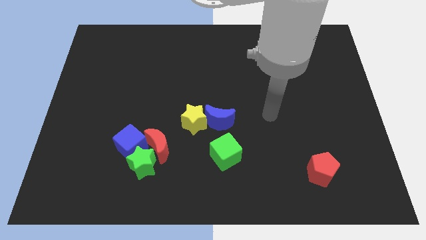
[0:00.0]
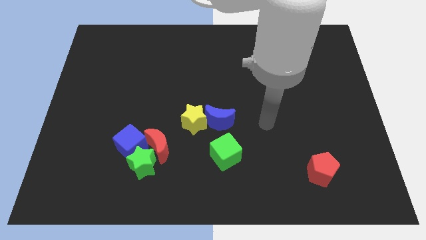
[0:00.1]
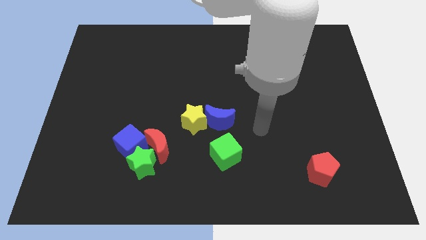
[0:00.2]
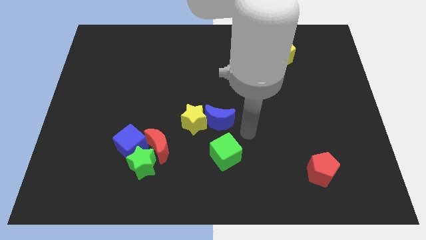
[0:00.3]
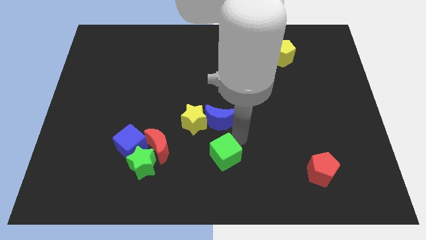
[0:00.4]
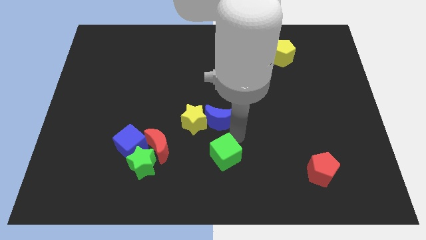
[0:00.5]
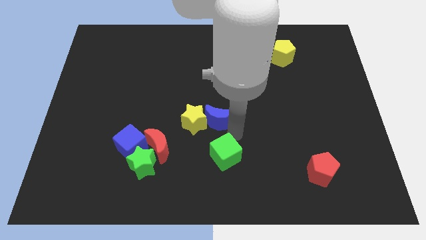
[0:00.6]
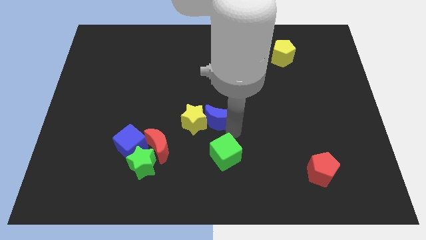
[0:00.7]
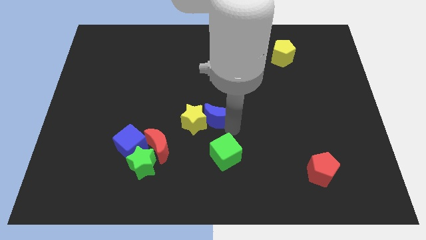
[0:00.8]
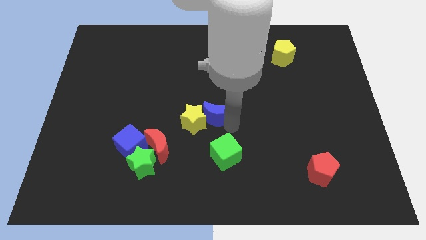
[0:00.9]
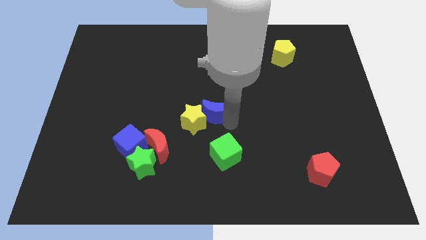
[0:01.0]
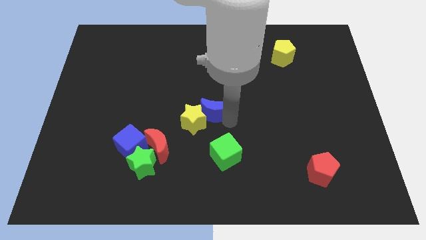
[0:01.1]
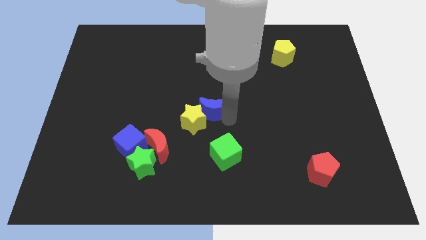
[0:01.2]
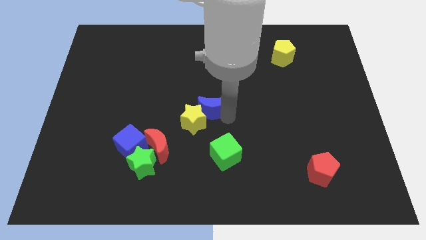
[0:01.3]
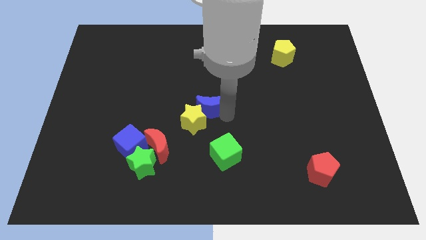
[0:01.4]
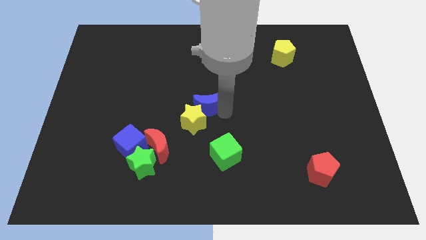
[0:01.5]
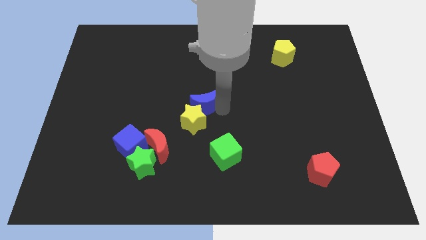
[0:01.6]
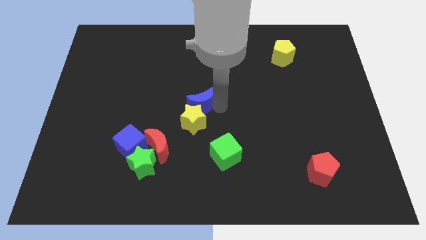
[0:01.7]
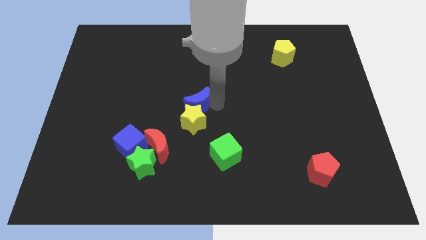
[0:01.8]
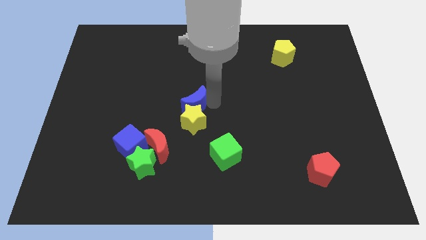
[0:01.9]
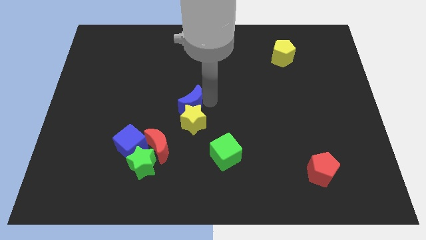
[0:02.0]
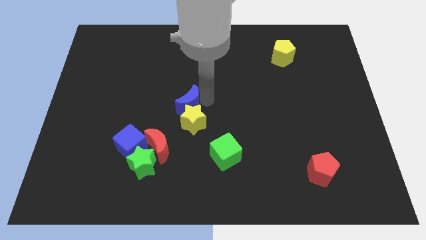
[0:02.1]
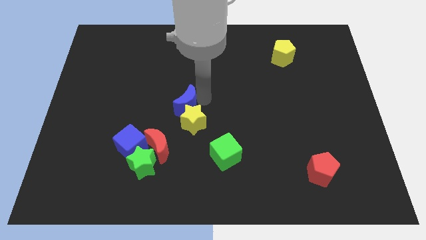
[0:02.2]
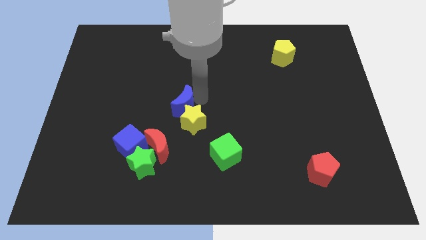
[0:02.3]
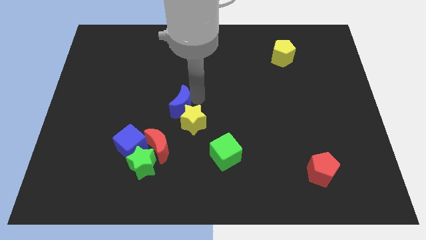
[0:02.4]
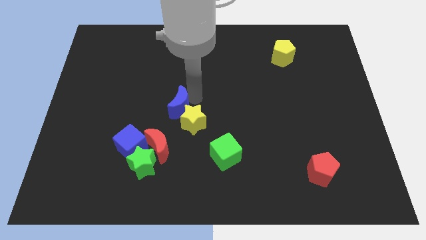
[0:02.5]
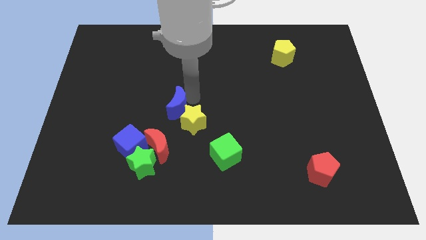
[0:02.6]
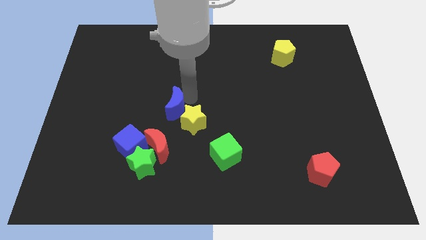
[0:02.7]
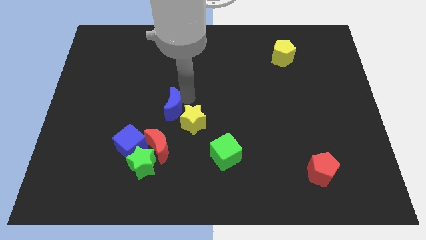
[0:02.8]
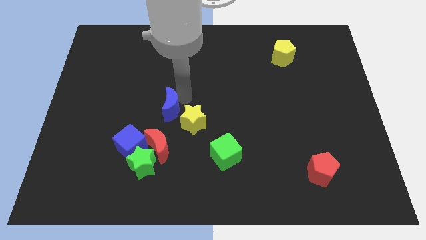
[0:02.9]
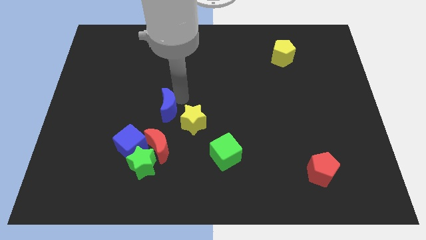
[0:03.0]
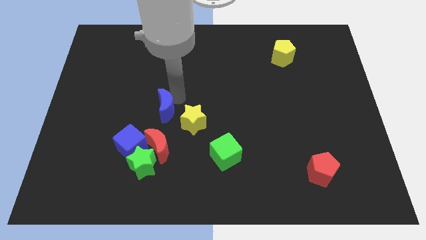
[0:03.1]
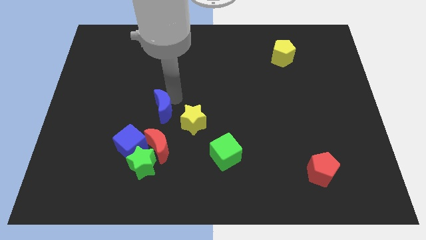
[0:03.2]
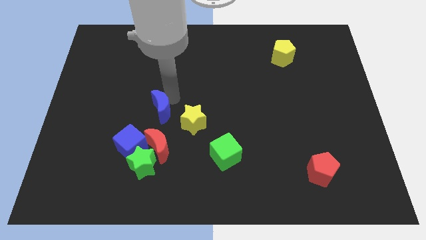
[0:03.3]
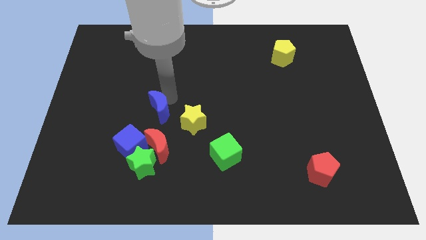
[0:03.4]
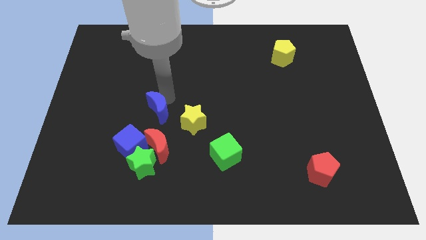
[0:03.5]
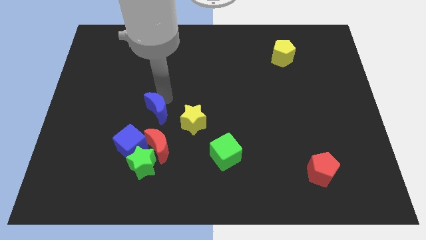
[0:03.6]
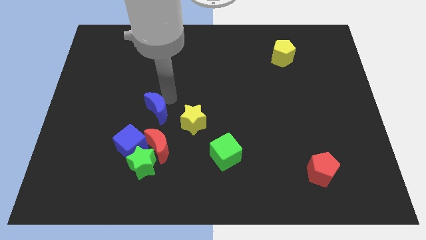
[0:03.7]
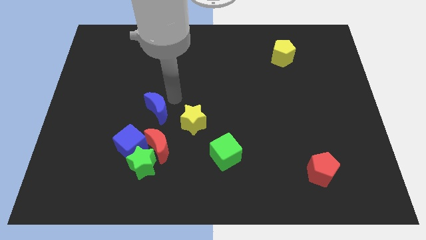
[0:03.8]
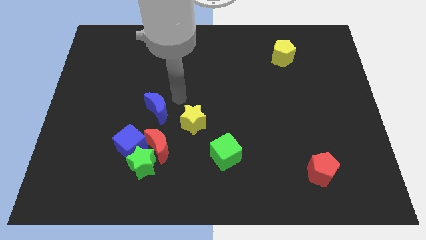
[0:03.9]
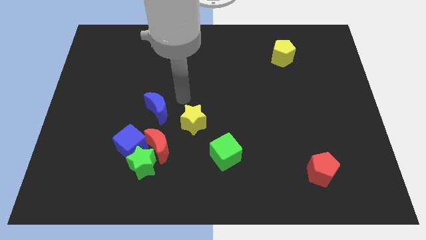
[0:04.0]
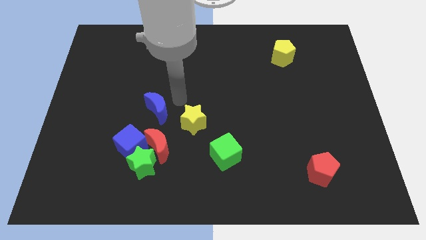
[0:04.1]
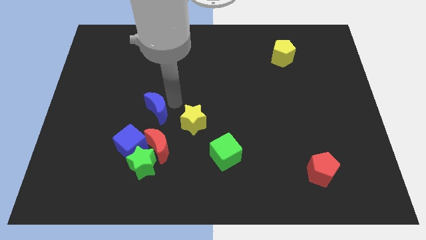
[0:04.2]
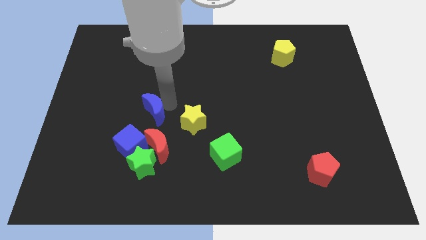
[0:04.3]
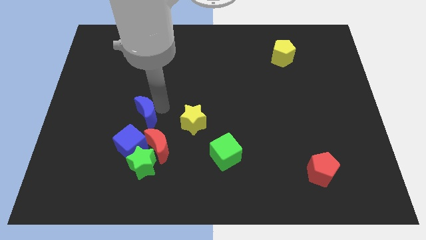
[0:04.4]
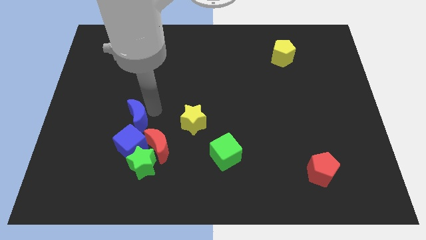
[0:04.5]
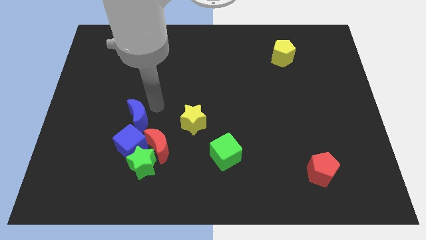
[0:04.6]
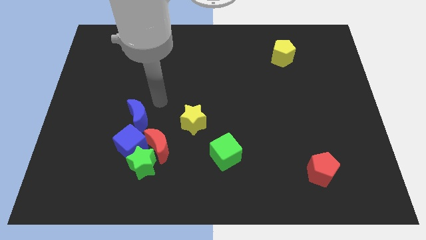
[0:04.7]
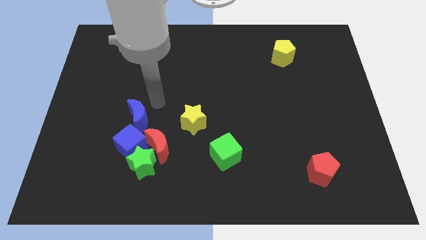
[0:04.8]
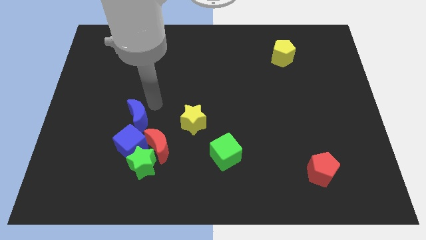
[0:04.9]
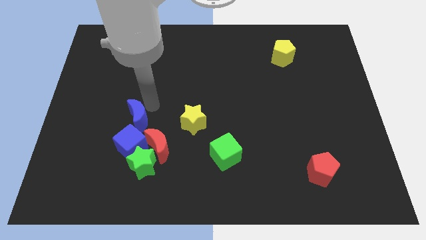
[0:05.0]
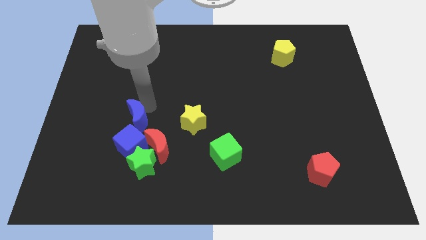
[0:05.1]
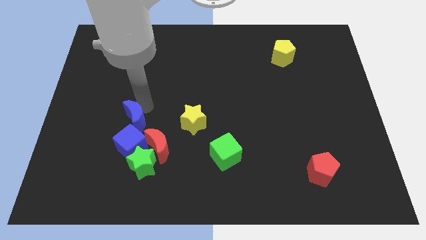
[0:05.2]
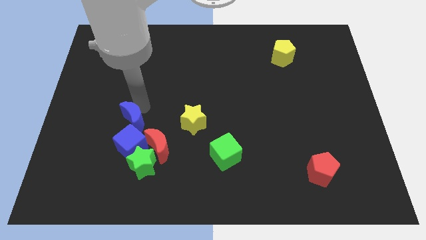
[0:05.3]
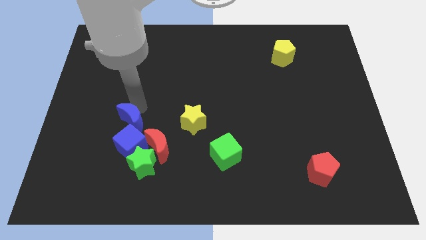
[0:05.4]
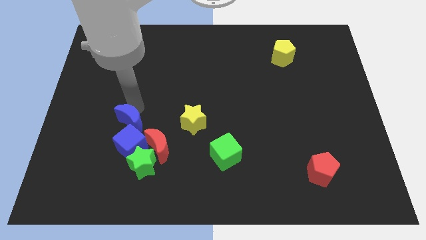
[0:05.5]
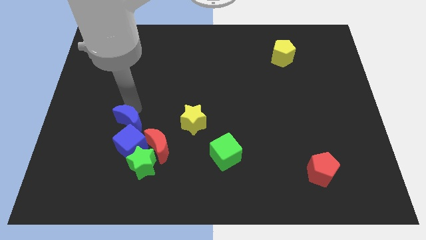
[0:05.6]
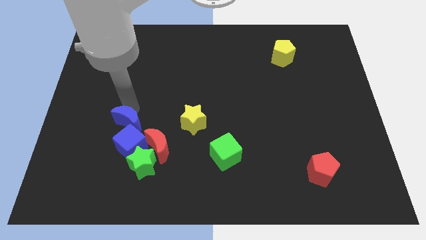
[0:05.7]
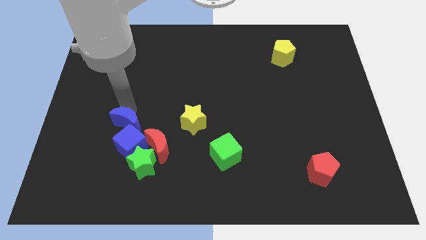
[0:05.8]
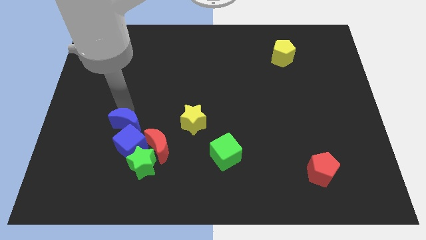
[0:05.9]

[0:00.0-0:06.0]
put the blue moon close to the blue cube
